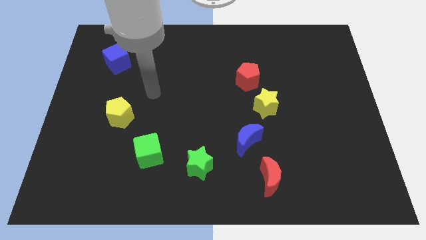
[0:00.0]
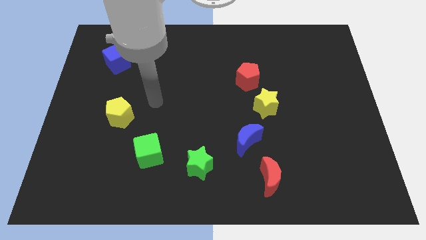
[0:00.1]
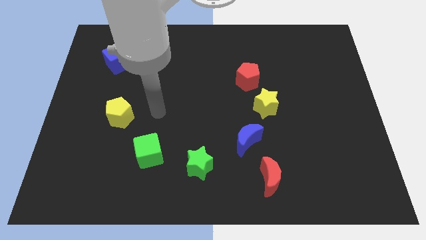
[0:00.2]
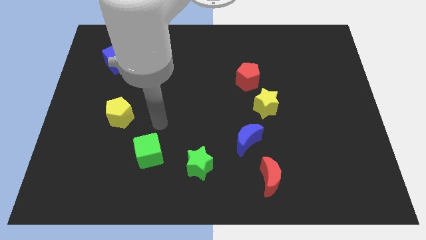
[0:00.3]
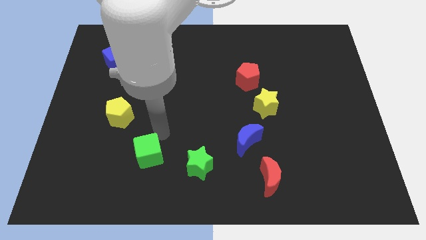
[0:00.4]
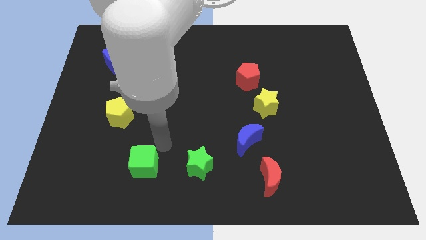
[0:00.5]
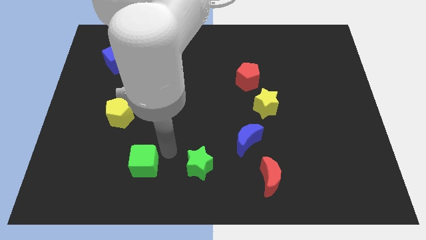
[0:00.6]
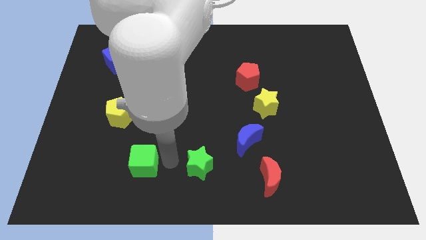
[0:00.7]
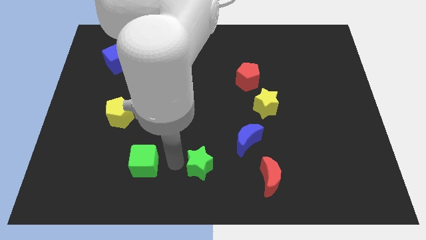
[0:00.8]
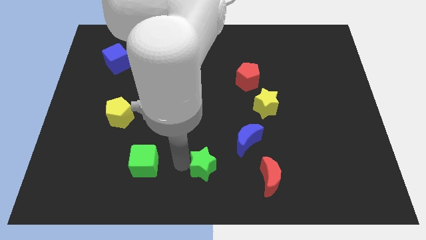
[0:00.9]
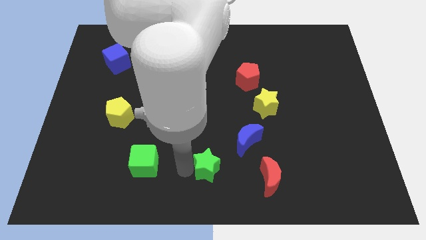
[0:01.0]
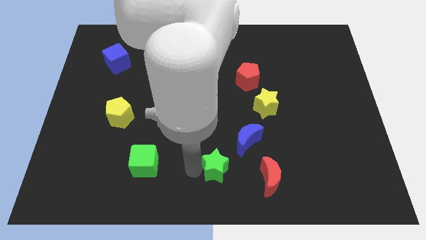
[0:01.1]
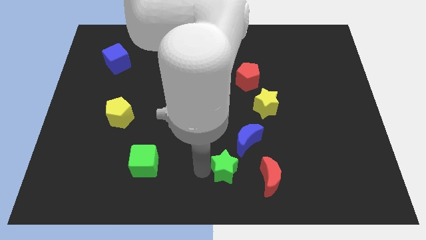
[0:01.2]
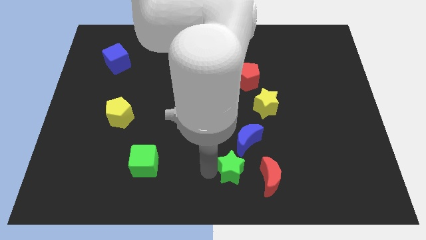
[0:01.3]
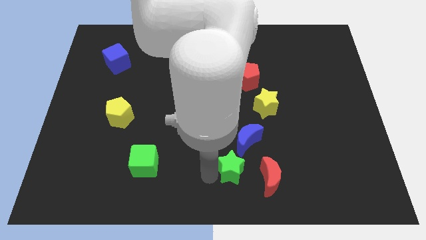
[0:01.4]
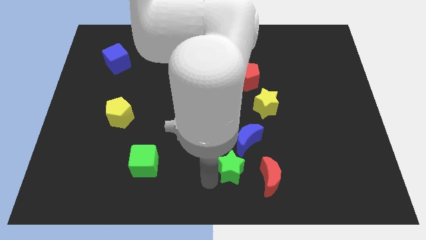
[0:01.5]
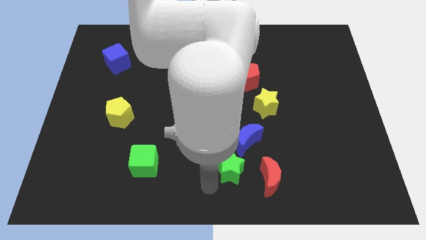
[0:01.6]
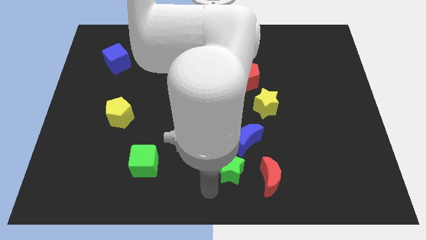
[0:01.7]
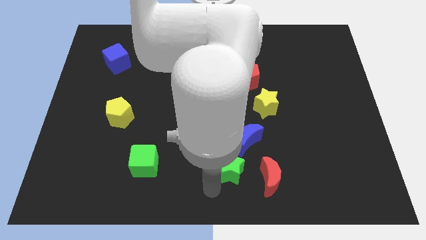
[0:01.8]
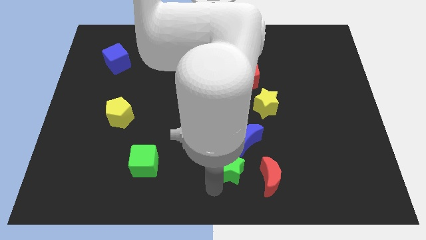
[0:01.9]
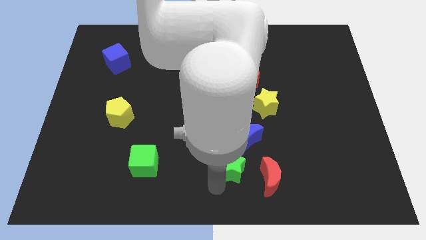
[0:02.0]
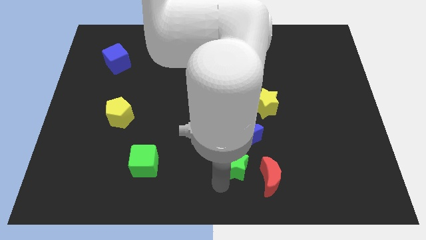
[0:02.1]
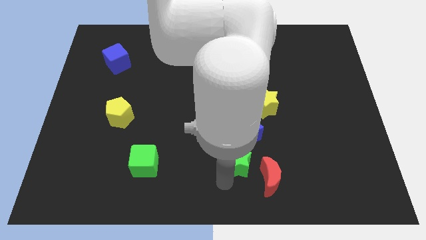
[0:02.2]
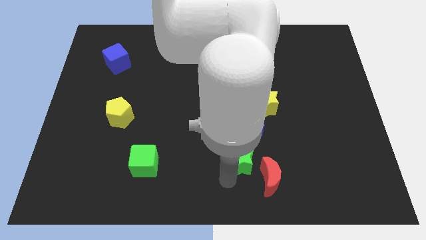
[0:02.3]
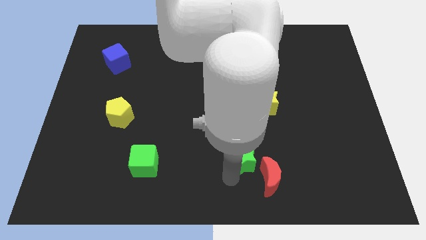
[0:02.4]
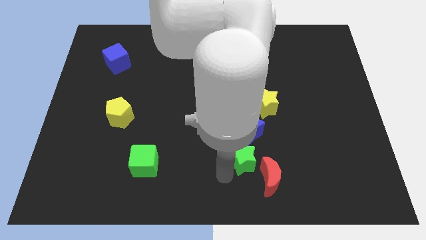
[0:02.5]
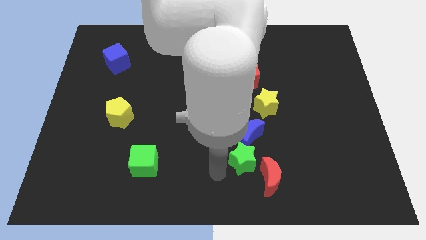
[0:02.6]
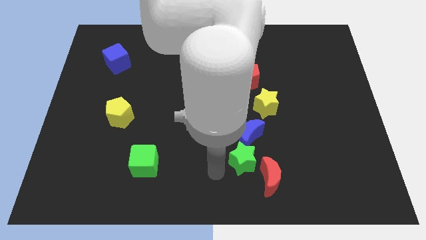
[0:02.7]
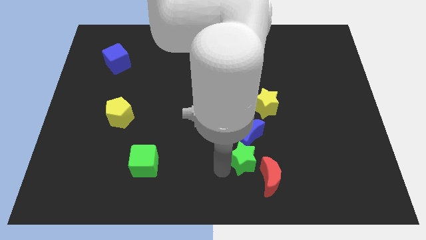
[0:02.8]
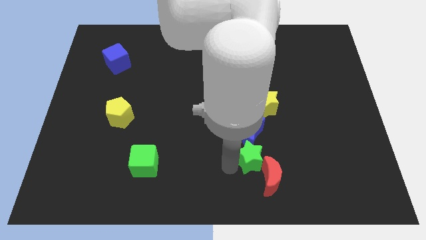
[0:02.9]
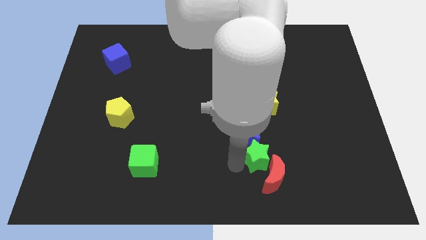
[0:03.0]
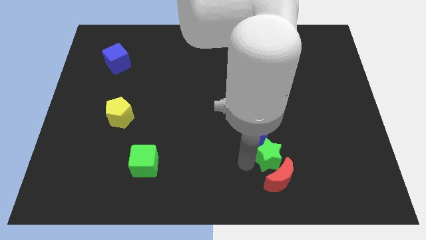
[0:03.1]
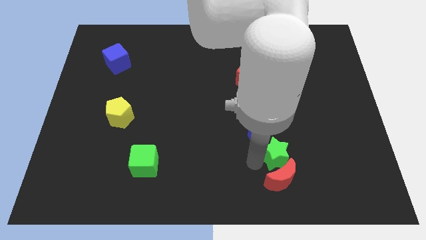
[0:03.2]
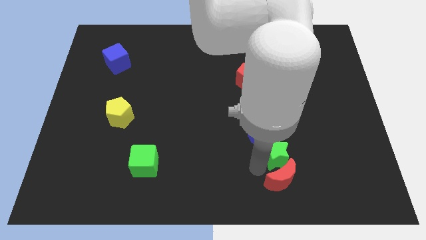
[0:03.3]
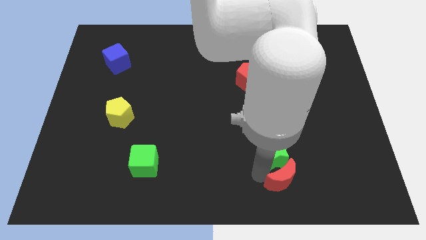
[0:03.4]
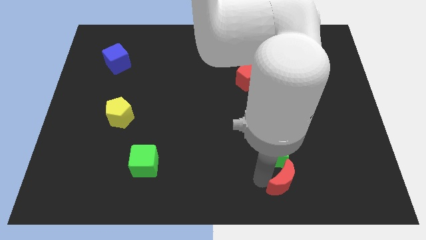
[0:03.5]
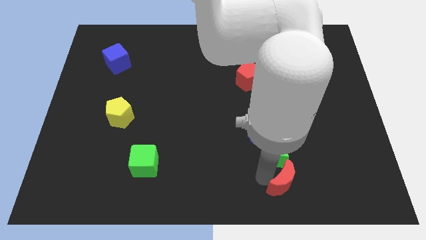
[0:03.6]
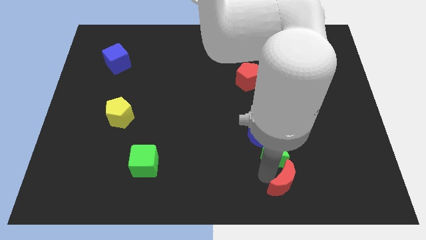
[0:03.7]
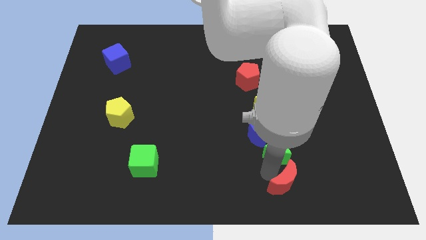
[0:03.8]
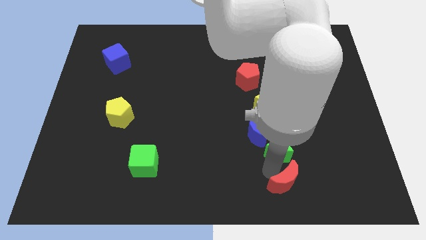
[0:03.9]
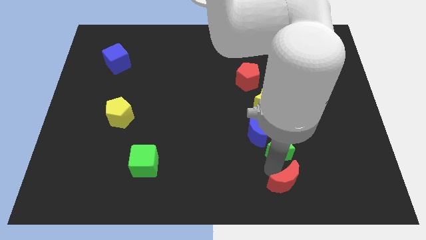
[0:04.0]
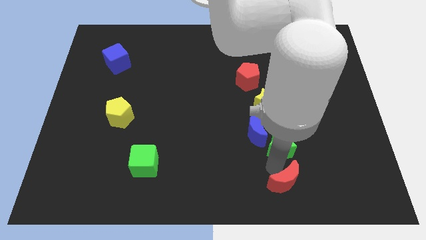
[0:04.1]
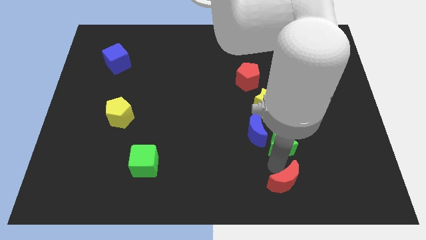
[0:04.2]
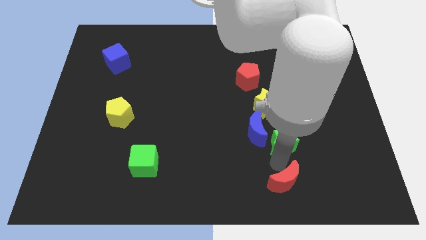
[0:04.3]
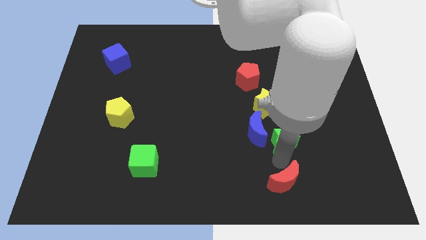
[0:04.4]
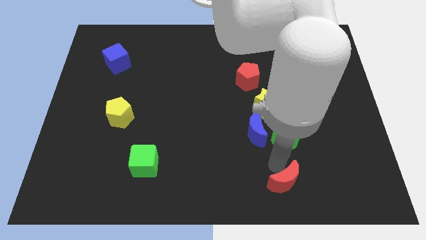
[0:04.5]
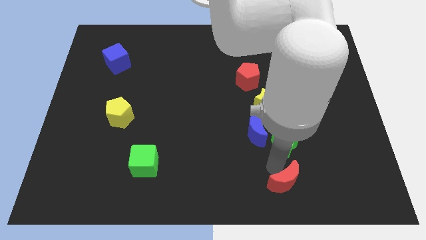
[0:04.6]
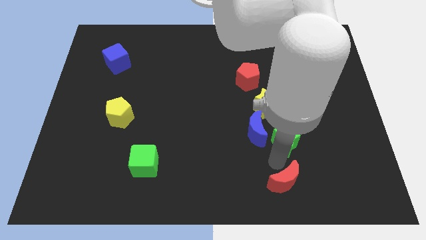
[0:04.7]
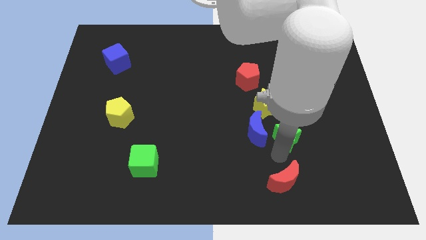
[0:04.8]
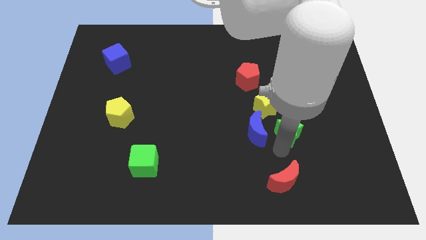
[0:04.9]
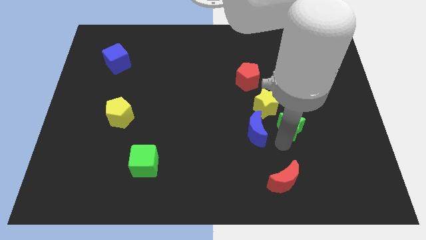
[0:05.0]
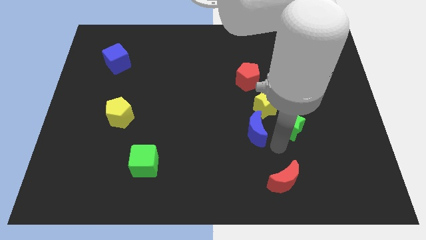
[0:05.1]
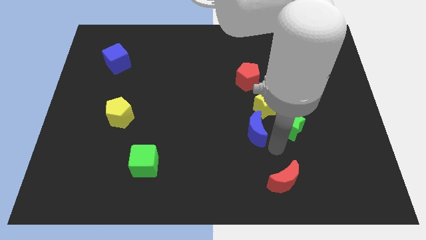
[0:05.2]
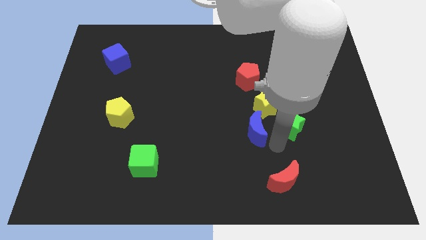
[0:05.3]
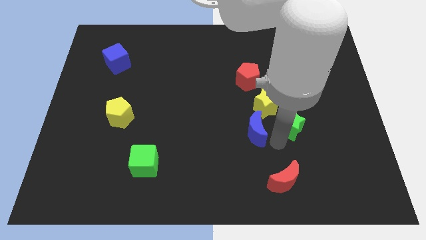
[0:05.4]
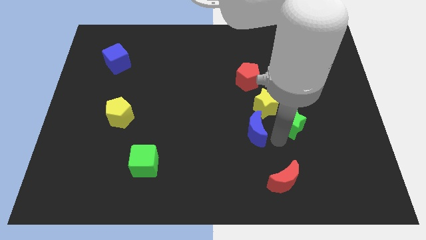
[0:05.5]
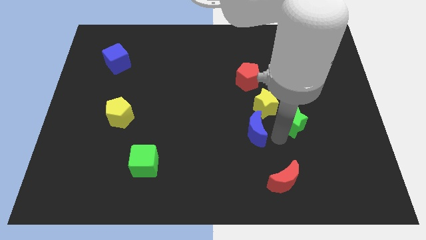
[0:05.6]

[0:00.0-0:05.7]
move the green star up and then to the right

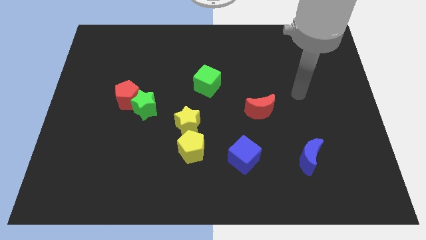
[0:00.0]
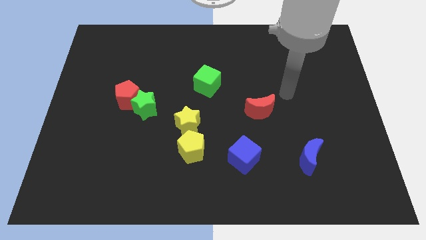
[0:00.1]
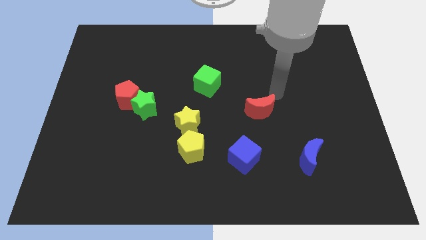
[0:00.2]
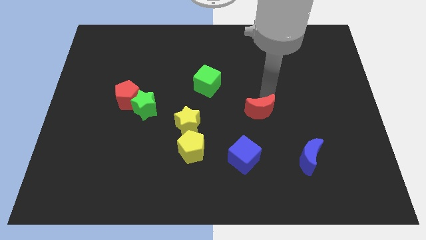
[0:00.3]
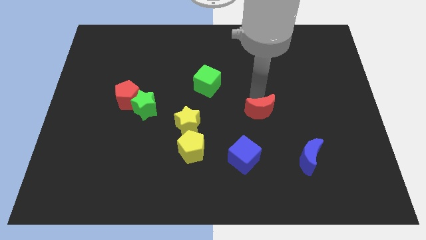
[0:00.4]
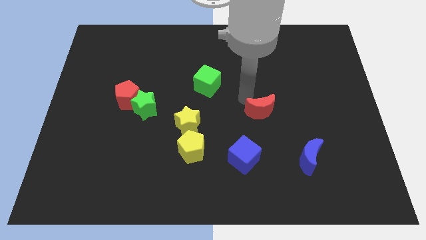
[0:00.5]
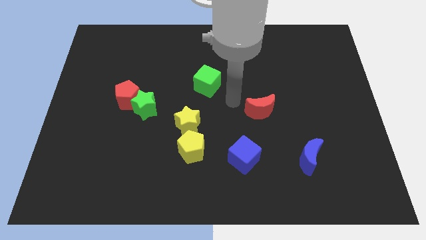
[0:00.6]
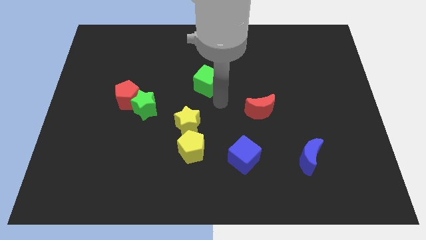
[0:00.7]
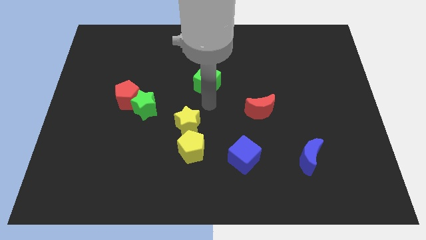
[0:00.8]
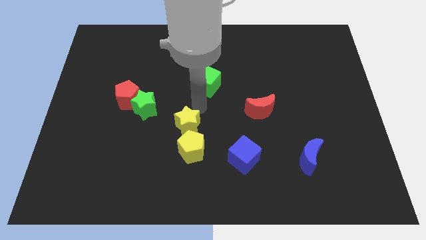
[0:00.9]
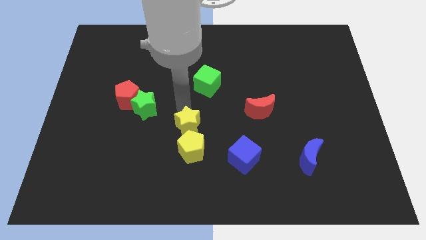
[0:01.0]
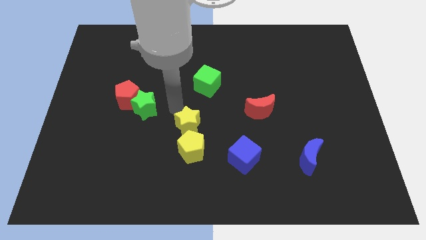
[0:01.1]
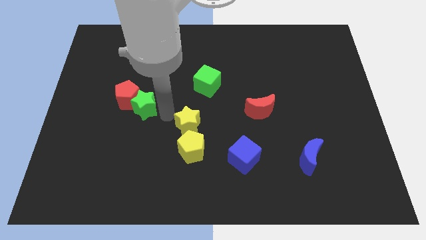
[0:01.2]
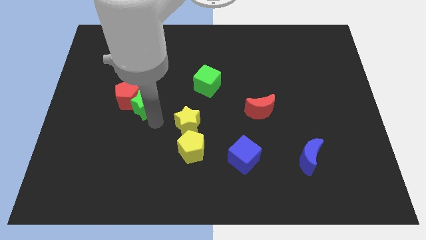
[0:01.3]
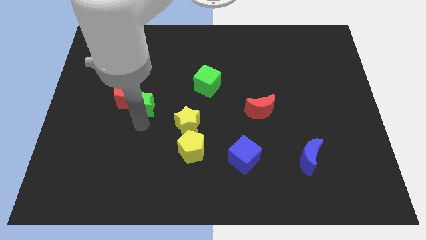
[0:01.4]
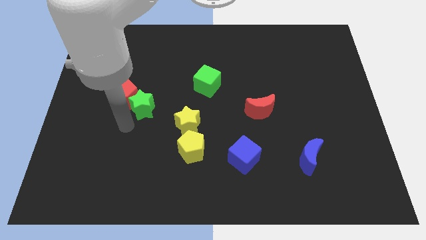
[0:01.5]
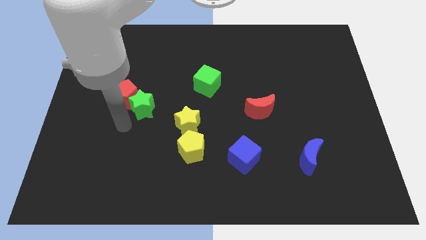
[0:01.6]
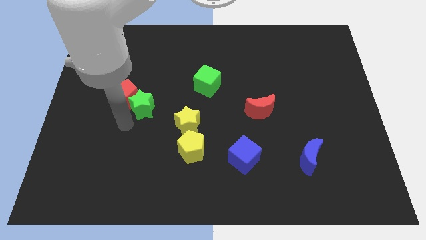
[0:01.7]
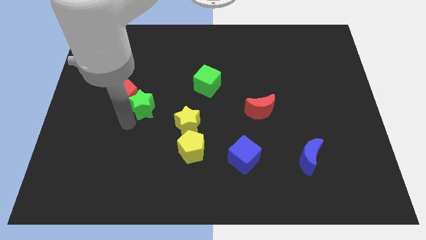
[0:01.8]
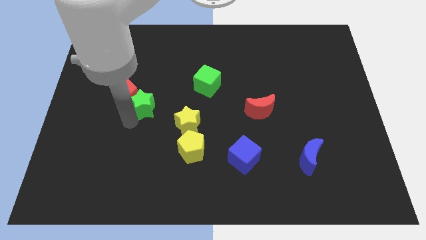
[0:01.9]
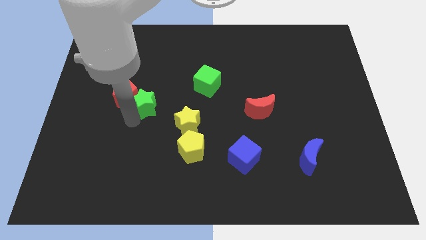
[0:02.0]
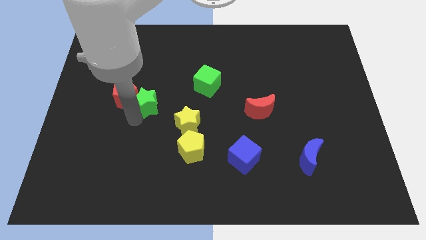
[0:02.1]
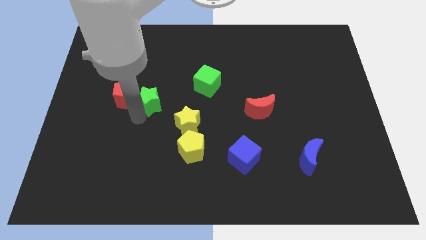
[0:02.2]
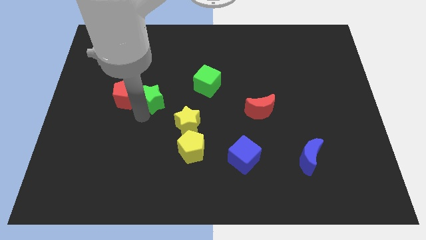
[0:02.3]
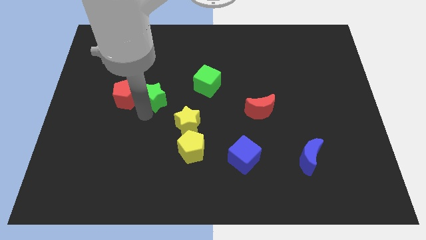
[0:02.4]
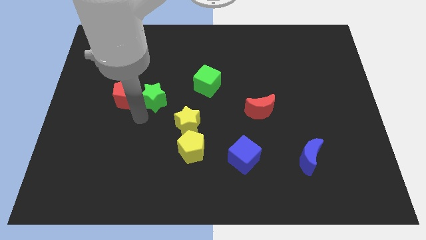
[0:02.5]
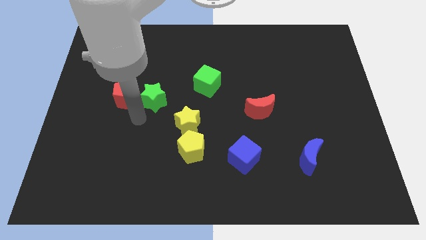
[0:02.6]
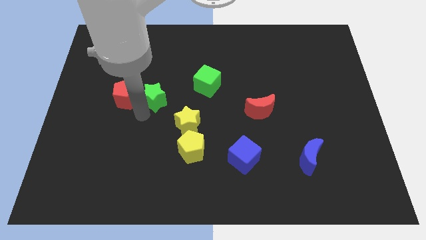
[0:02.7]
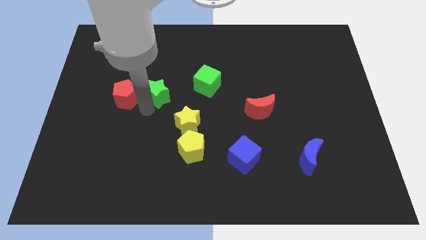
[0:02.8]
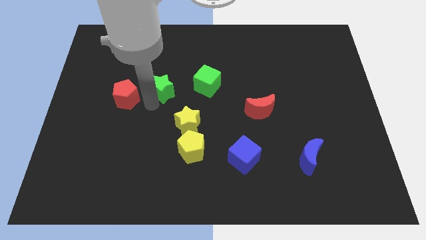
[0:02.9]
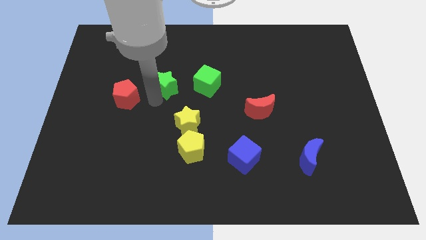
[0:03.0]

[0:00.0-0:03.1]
slide the green star diagonally up and to the right somewhat
